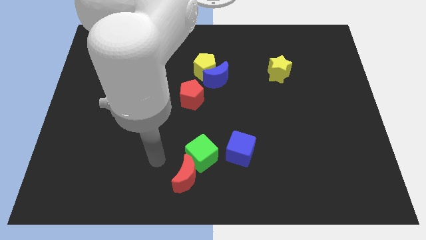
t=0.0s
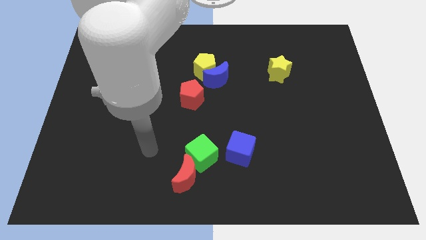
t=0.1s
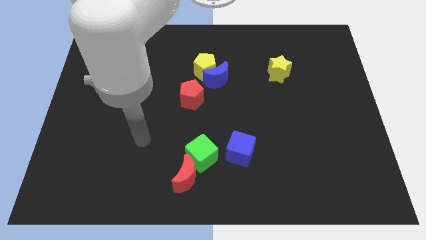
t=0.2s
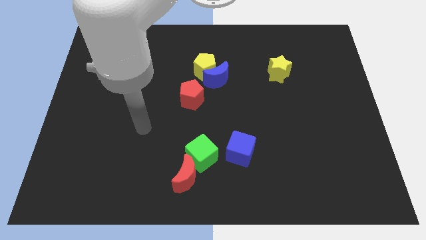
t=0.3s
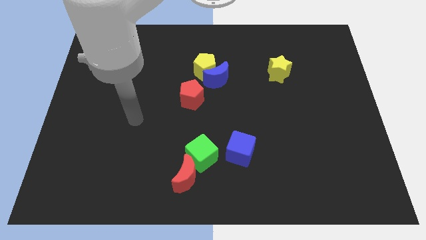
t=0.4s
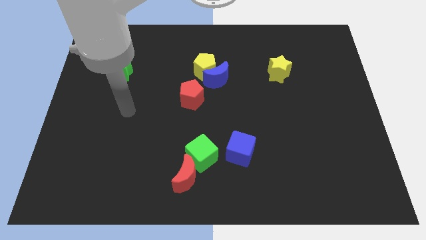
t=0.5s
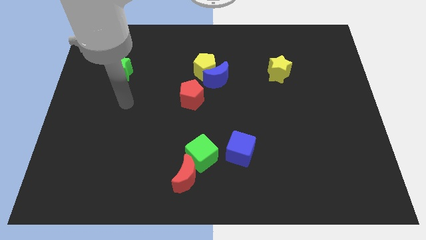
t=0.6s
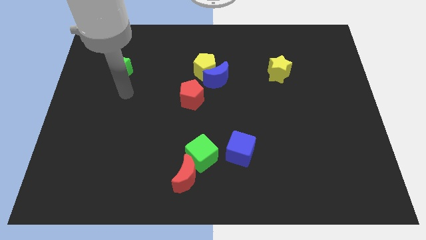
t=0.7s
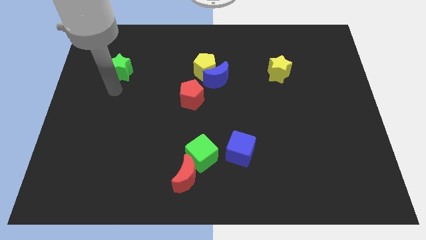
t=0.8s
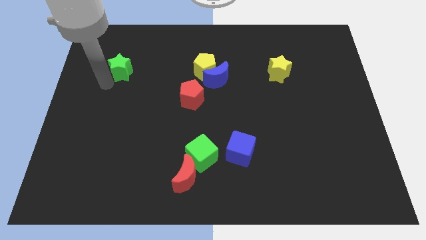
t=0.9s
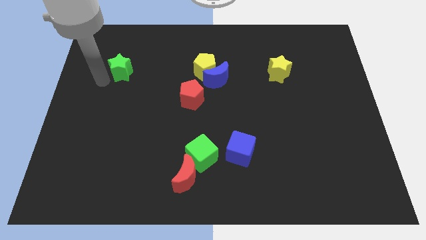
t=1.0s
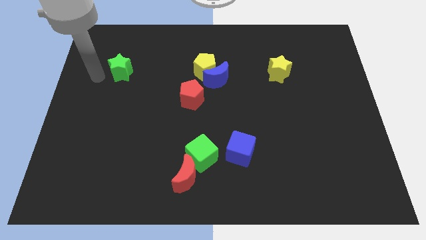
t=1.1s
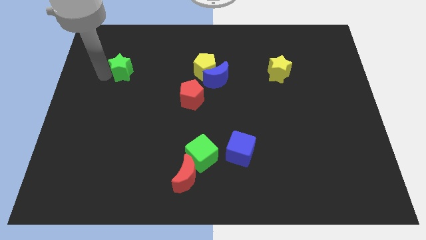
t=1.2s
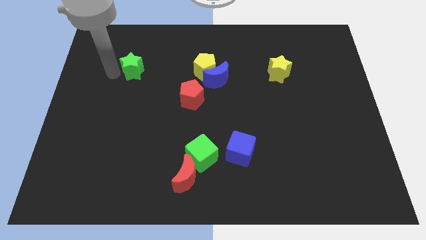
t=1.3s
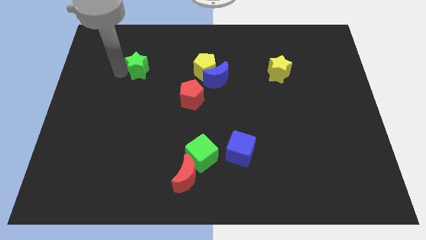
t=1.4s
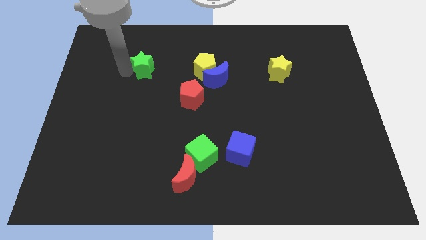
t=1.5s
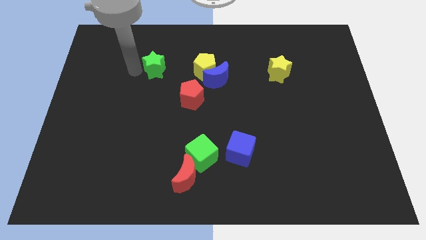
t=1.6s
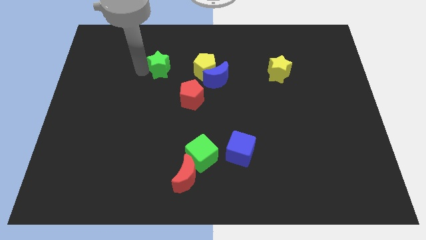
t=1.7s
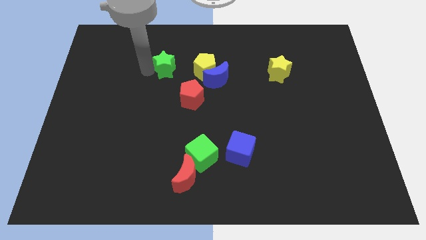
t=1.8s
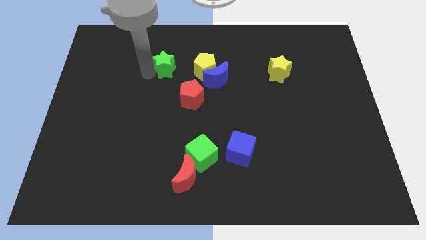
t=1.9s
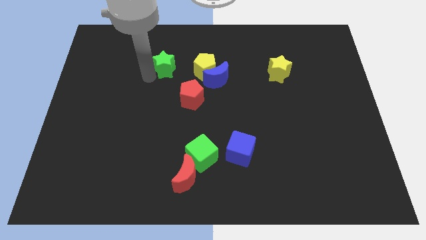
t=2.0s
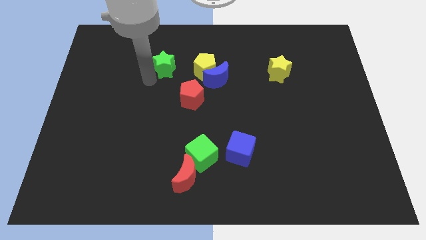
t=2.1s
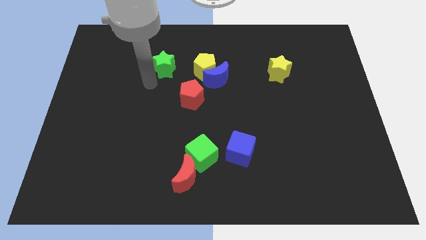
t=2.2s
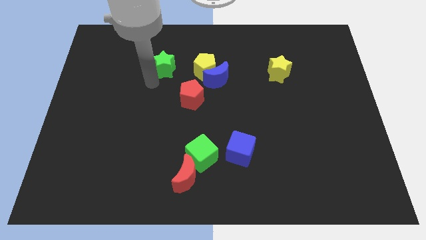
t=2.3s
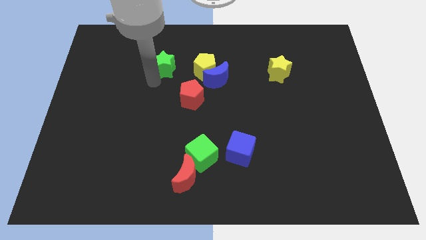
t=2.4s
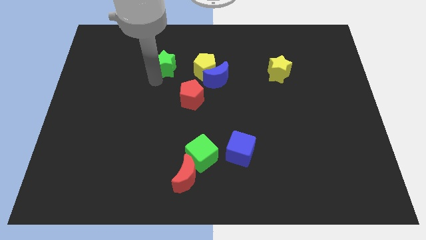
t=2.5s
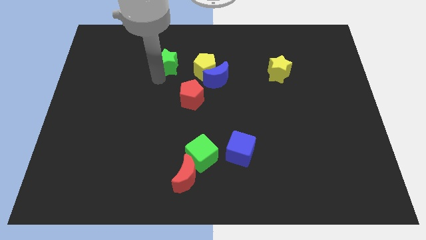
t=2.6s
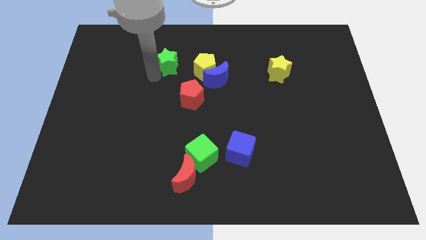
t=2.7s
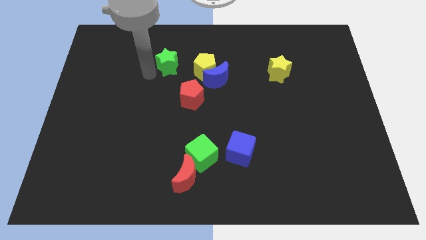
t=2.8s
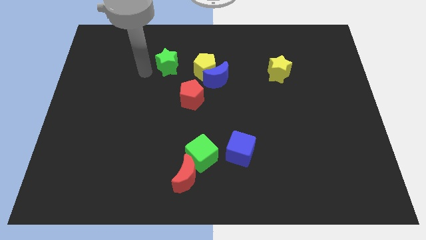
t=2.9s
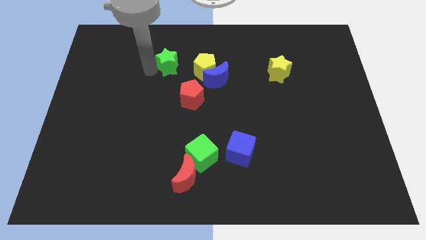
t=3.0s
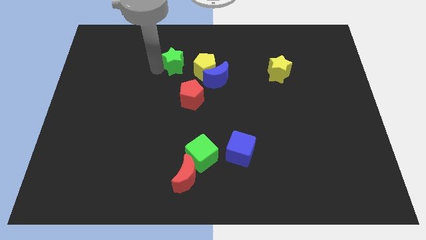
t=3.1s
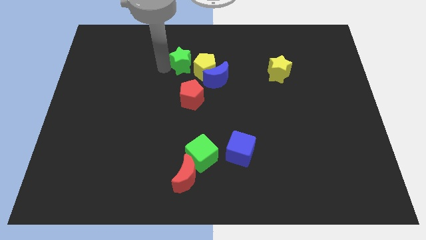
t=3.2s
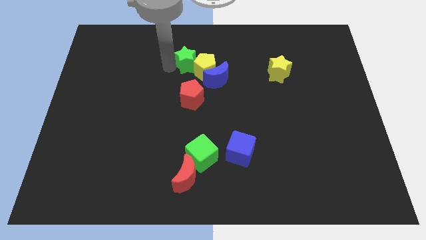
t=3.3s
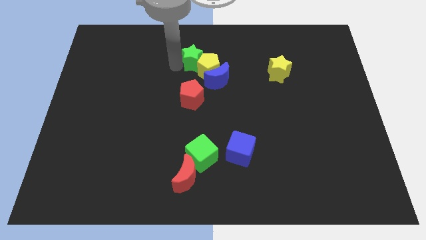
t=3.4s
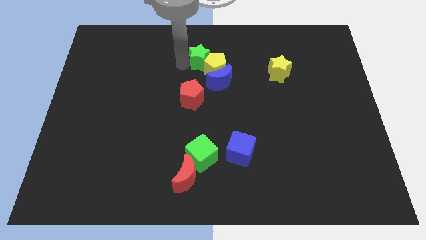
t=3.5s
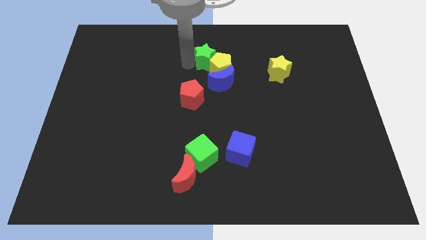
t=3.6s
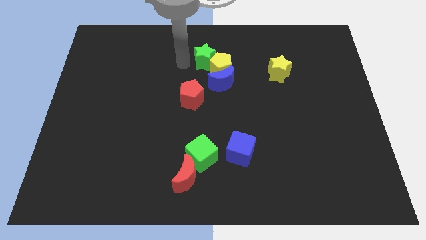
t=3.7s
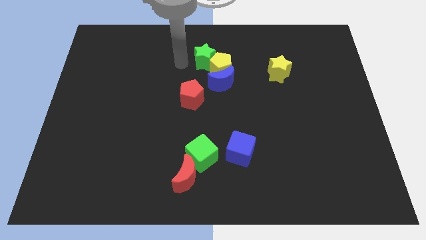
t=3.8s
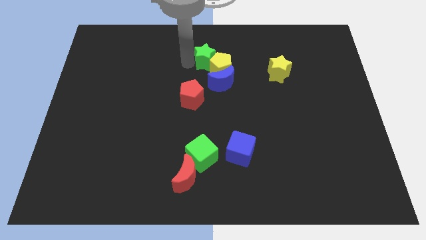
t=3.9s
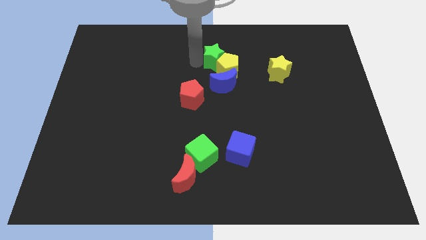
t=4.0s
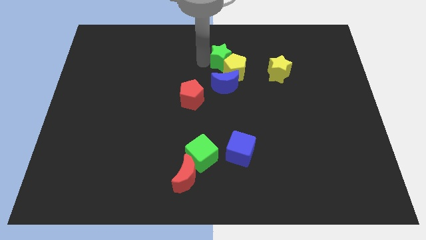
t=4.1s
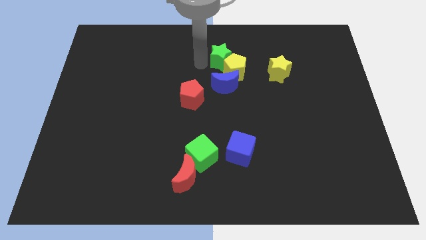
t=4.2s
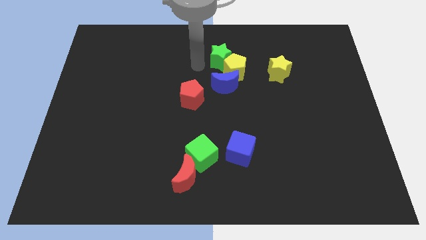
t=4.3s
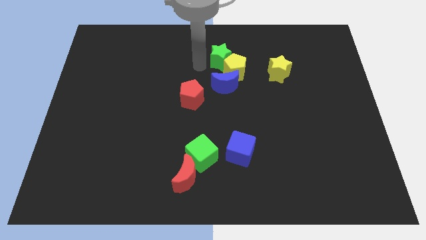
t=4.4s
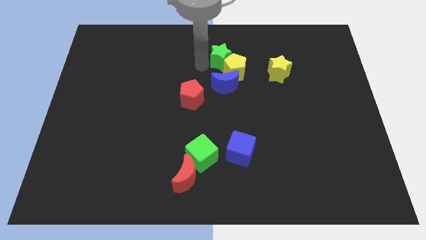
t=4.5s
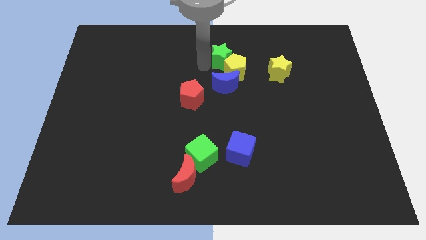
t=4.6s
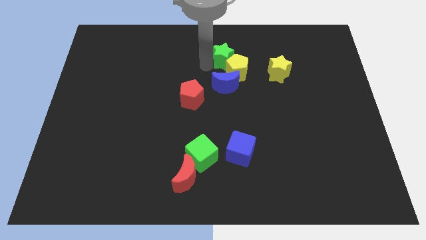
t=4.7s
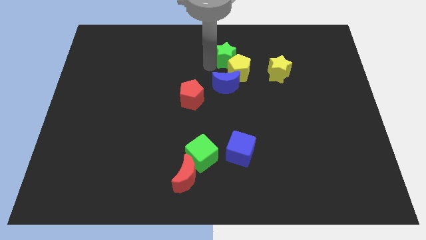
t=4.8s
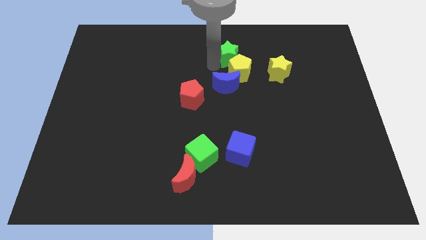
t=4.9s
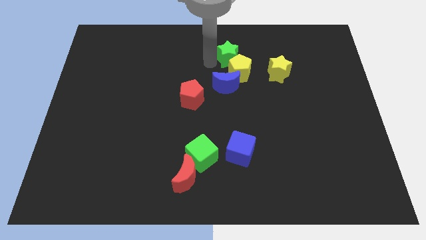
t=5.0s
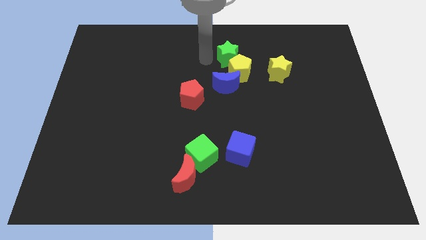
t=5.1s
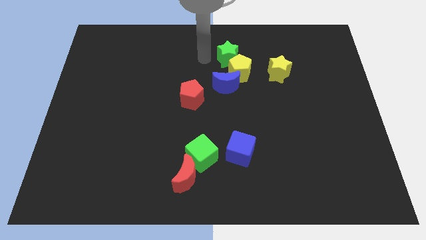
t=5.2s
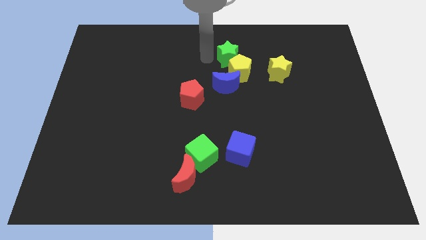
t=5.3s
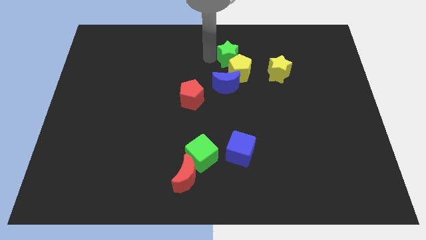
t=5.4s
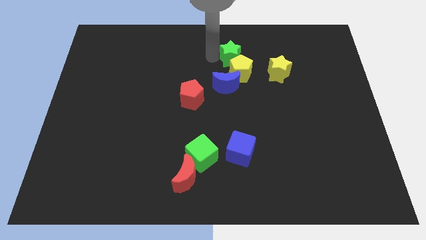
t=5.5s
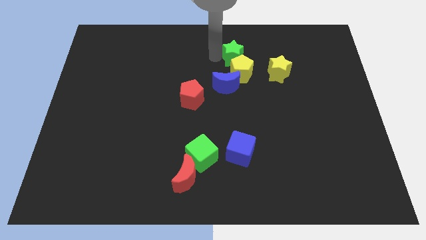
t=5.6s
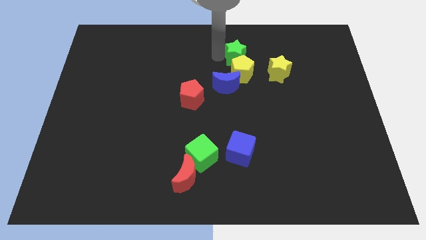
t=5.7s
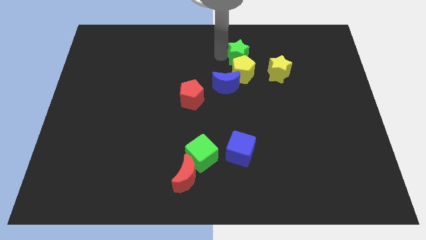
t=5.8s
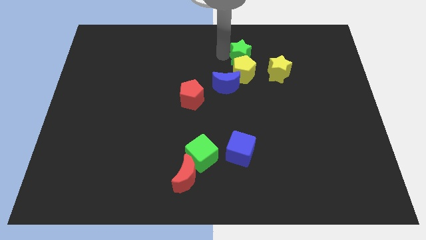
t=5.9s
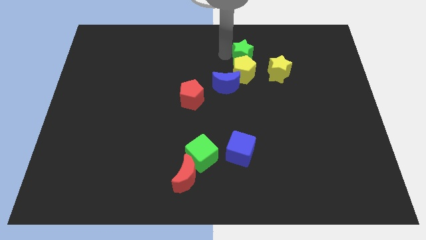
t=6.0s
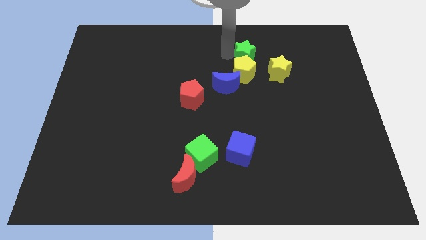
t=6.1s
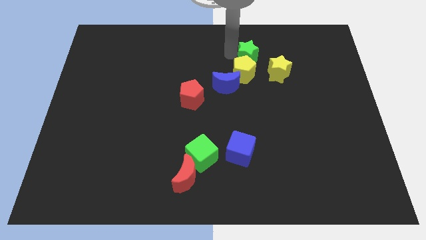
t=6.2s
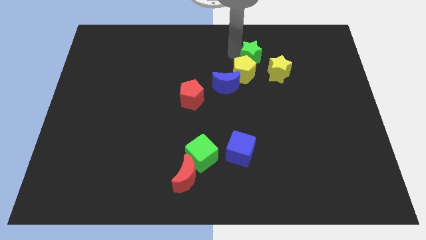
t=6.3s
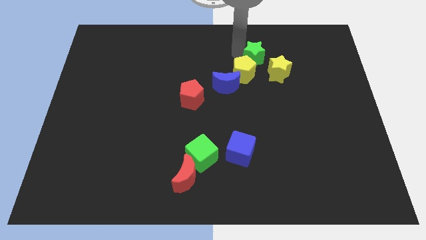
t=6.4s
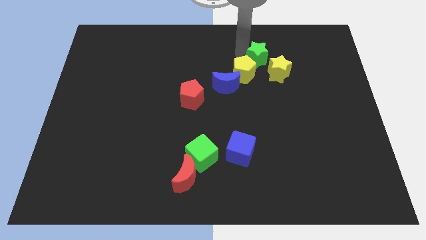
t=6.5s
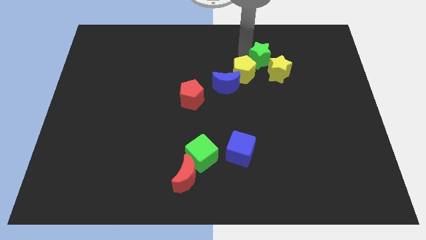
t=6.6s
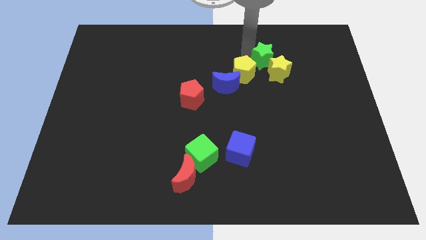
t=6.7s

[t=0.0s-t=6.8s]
push the green star to the yellow star

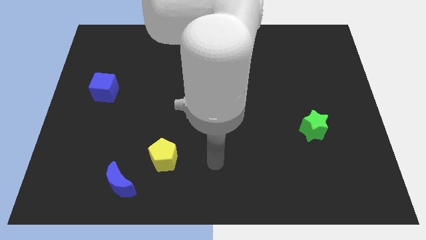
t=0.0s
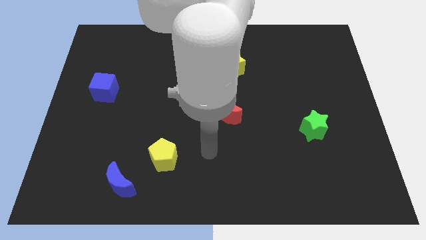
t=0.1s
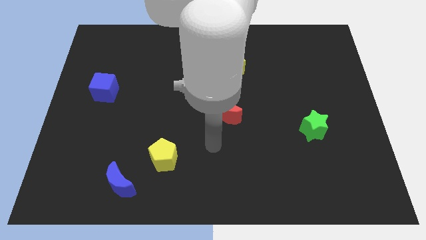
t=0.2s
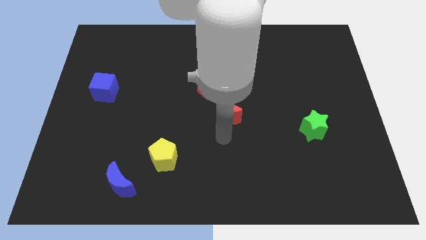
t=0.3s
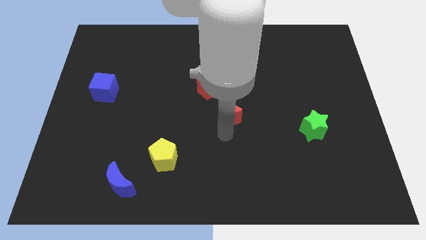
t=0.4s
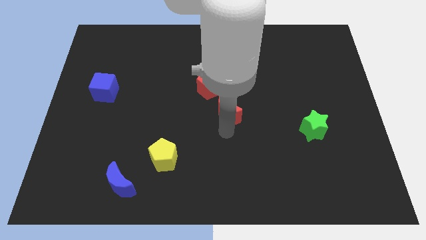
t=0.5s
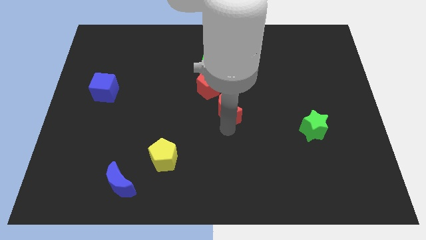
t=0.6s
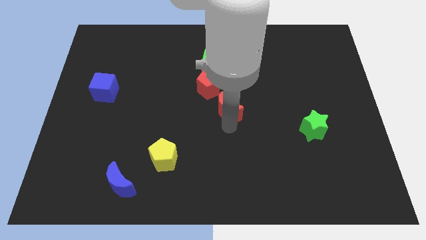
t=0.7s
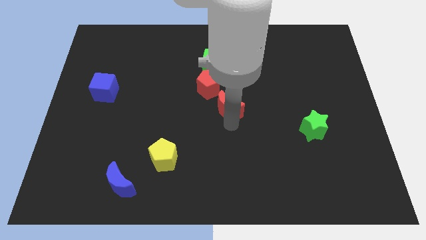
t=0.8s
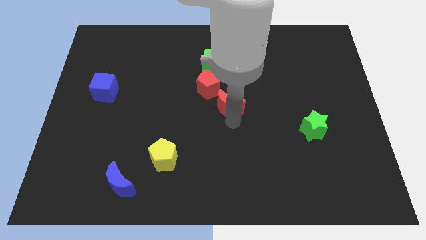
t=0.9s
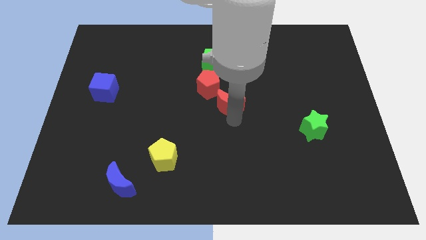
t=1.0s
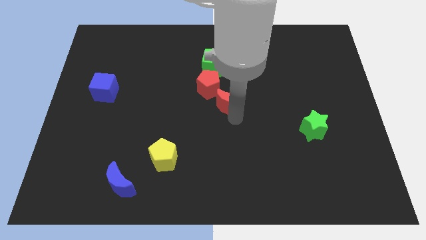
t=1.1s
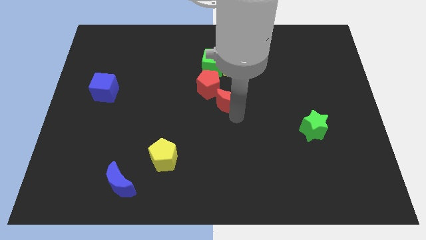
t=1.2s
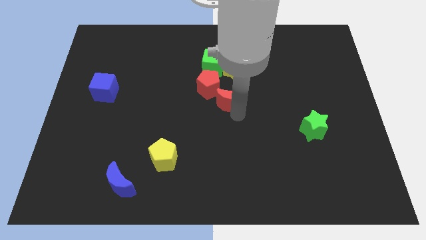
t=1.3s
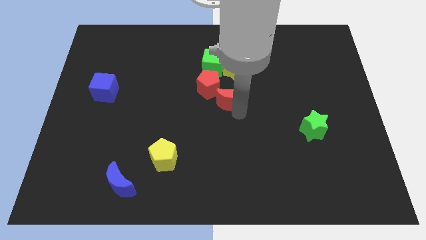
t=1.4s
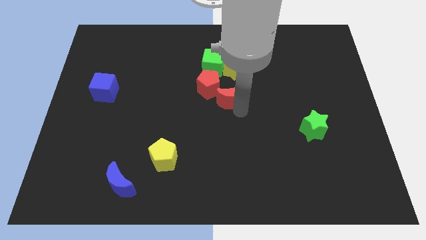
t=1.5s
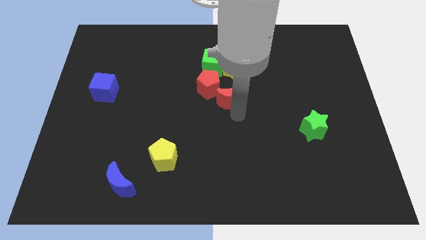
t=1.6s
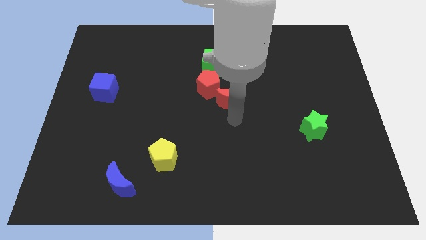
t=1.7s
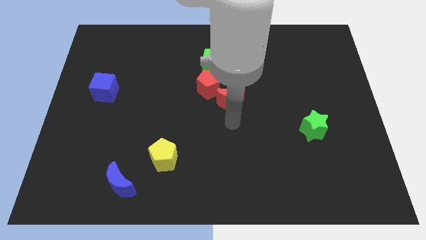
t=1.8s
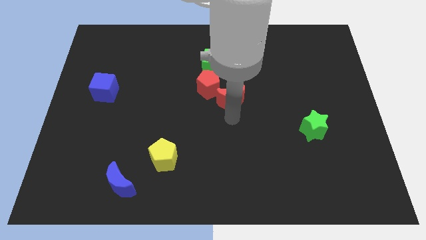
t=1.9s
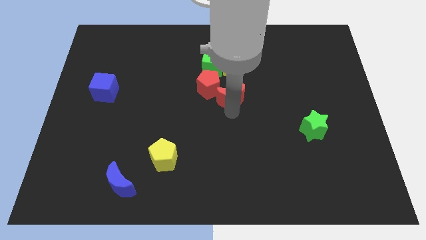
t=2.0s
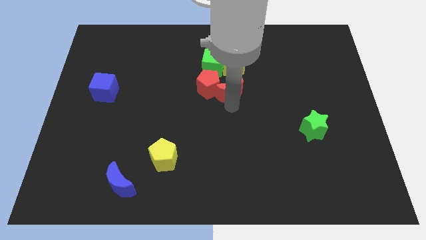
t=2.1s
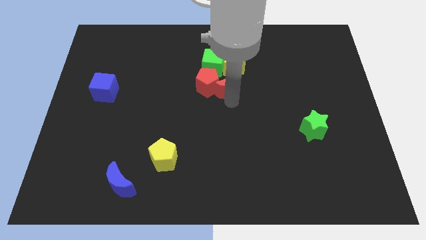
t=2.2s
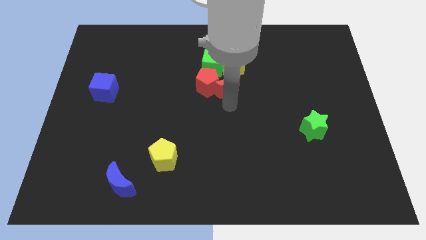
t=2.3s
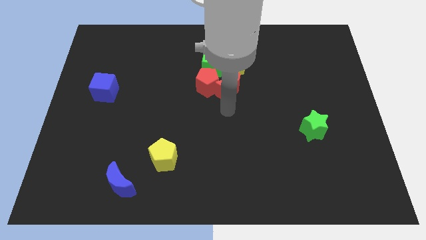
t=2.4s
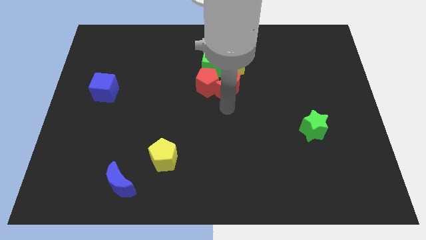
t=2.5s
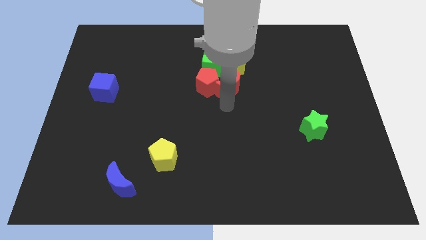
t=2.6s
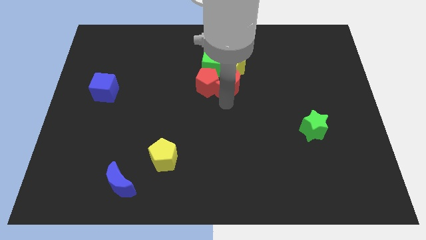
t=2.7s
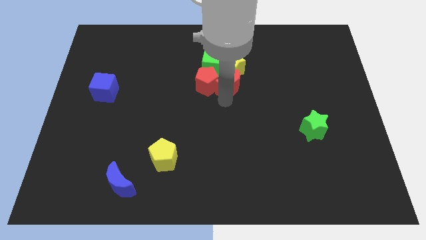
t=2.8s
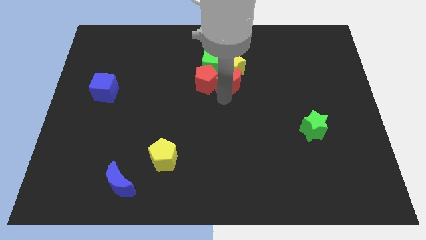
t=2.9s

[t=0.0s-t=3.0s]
move the red moon close to the yellow star
